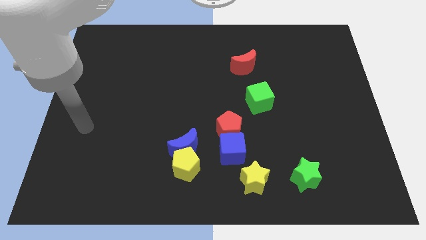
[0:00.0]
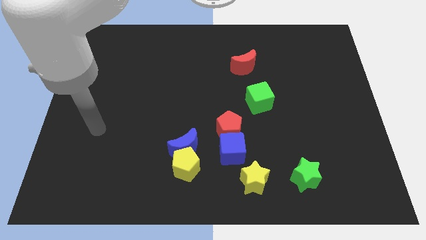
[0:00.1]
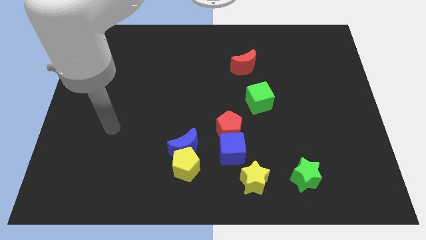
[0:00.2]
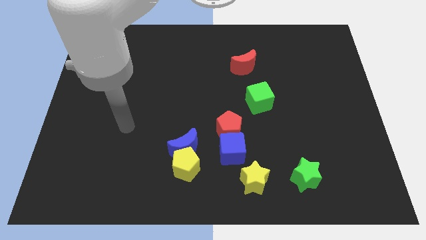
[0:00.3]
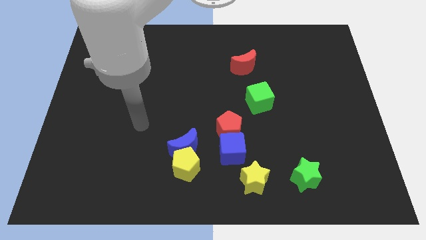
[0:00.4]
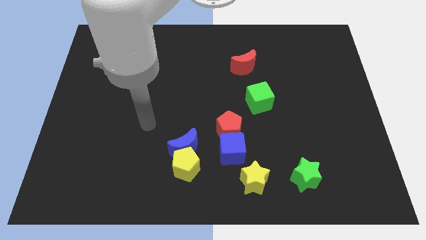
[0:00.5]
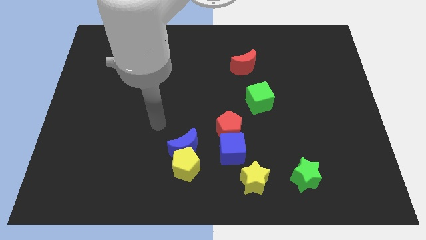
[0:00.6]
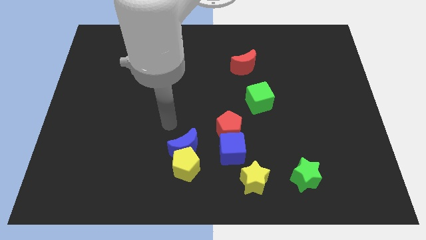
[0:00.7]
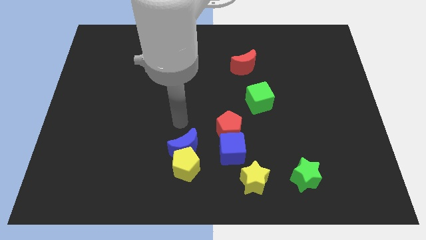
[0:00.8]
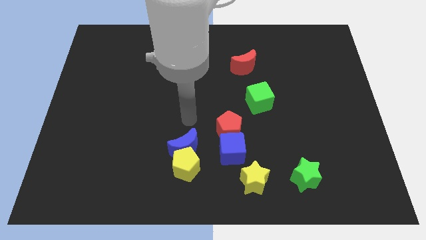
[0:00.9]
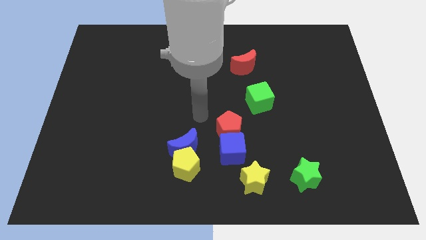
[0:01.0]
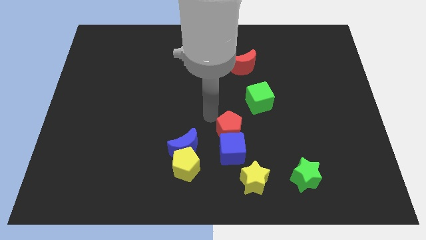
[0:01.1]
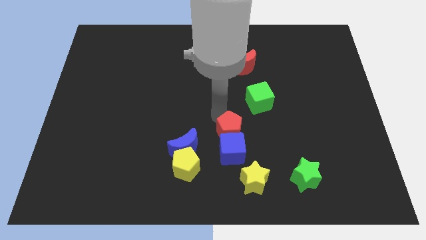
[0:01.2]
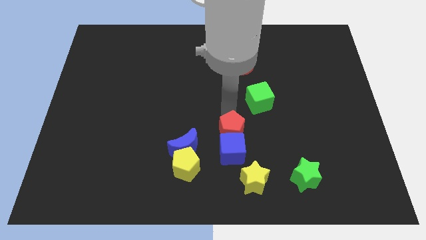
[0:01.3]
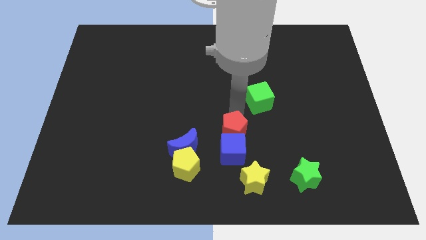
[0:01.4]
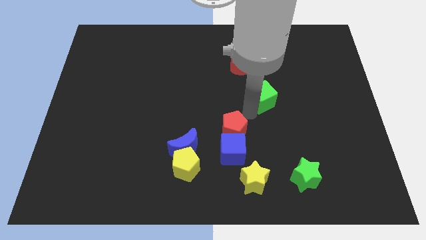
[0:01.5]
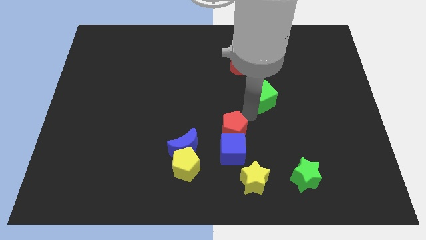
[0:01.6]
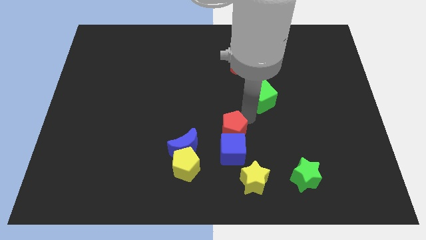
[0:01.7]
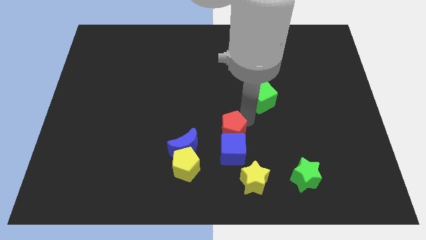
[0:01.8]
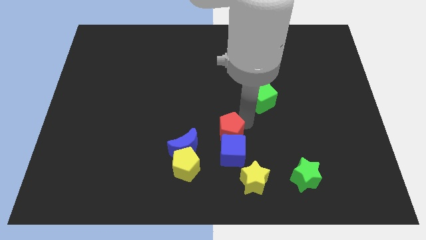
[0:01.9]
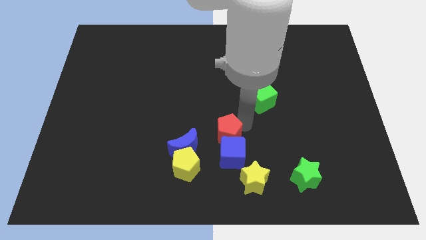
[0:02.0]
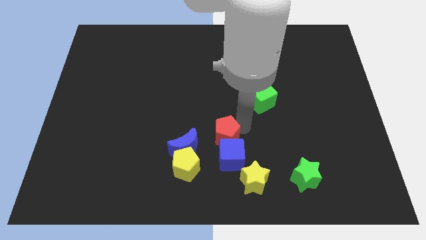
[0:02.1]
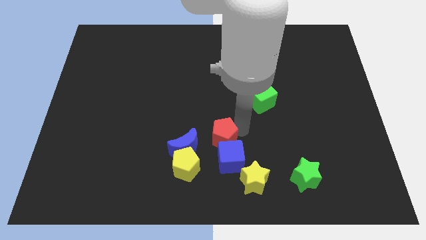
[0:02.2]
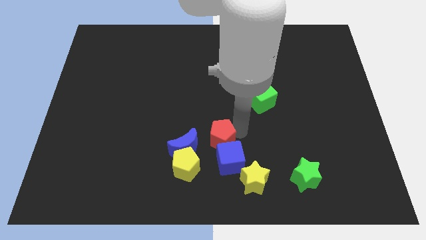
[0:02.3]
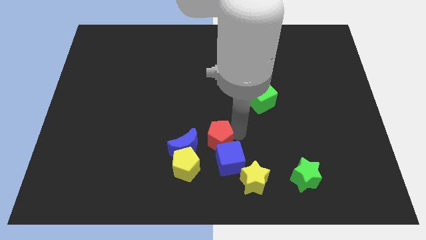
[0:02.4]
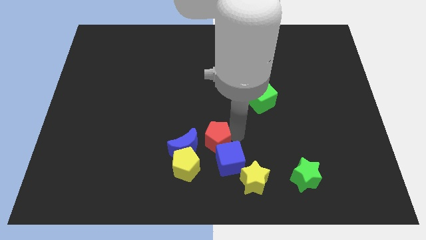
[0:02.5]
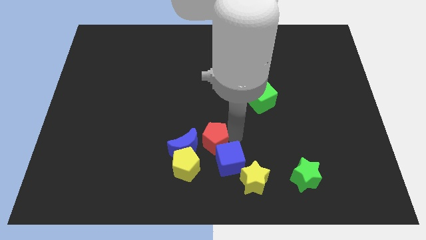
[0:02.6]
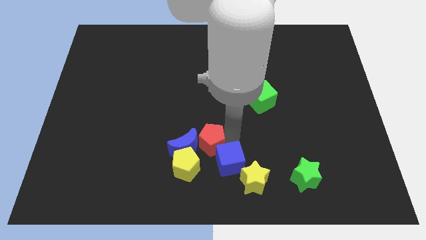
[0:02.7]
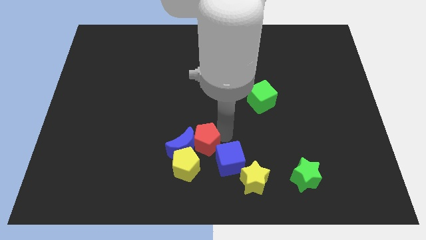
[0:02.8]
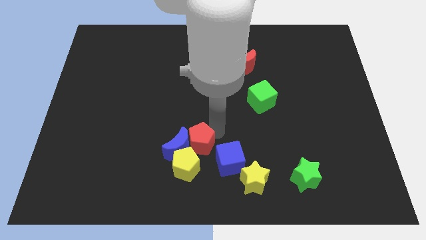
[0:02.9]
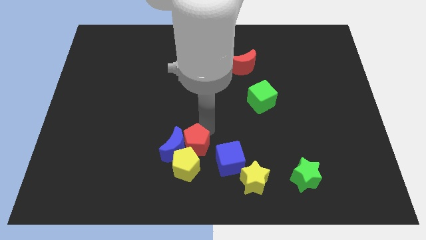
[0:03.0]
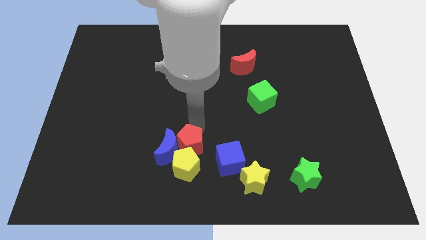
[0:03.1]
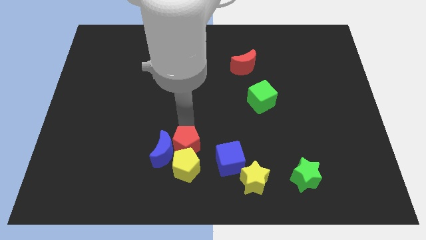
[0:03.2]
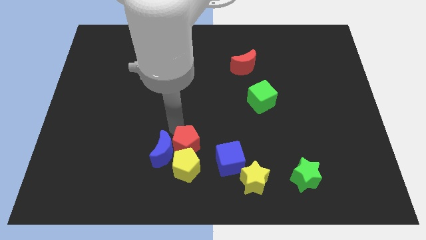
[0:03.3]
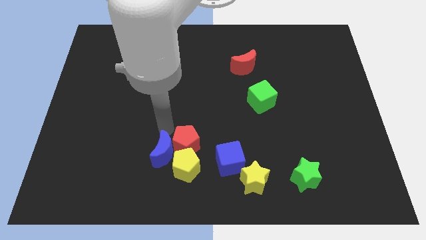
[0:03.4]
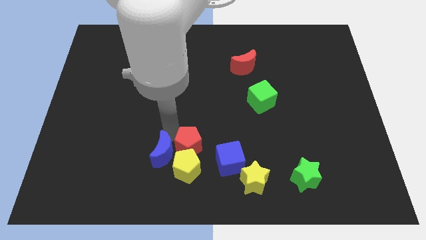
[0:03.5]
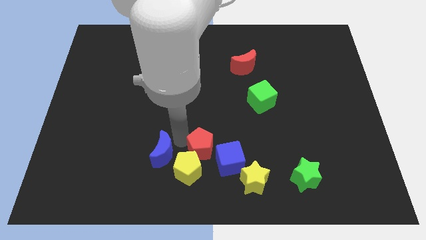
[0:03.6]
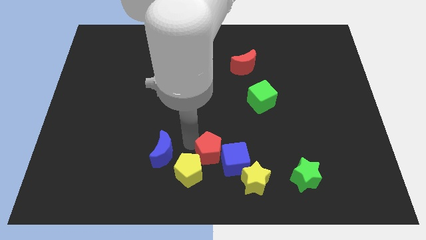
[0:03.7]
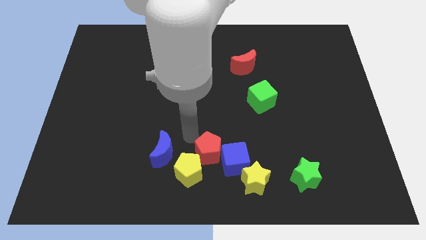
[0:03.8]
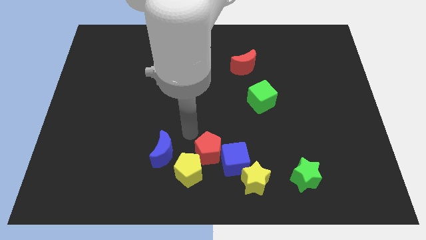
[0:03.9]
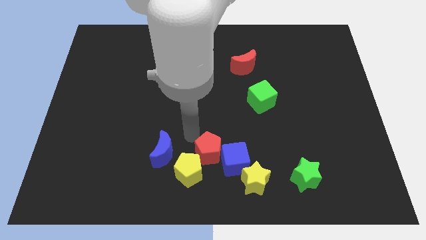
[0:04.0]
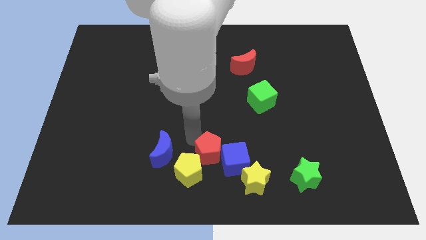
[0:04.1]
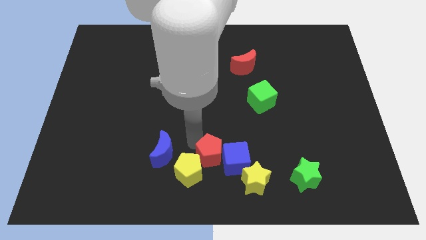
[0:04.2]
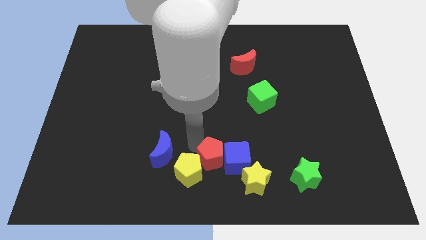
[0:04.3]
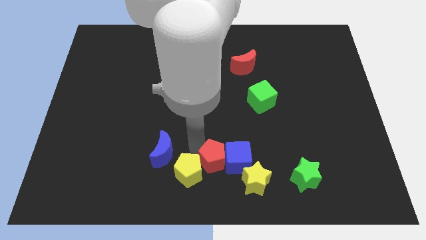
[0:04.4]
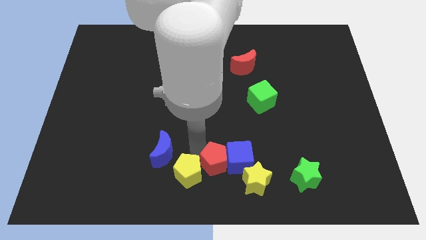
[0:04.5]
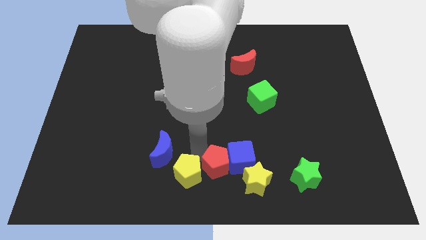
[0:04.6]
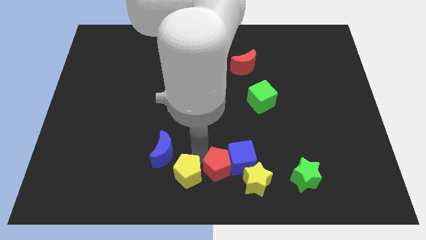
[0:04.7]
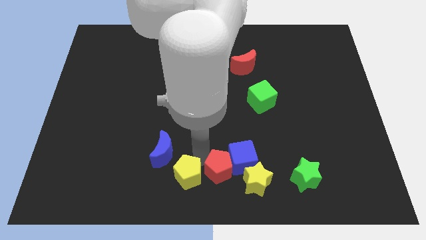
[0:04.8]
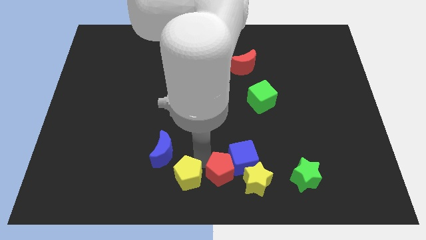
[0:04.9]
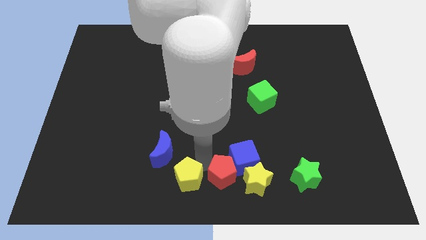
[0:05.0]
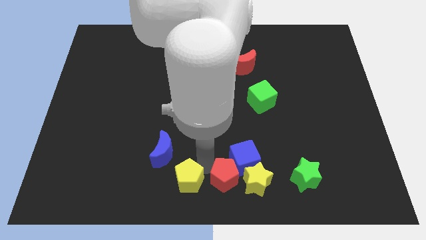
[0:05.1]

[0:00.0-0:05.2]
move the red pentagon left of the green star
